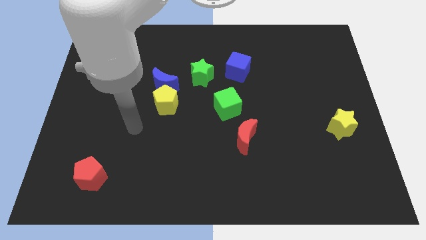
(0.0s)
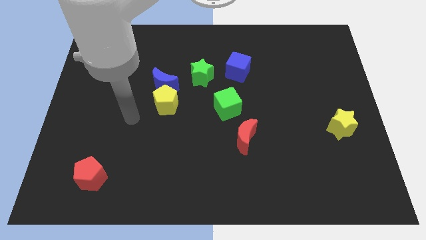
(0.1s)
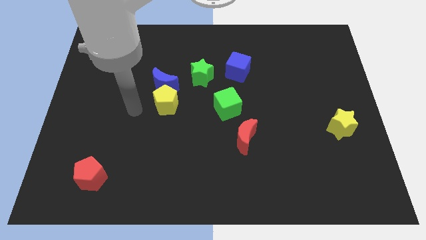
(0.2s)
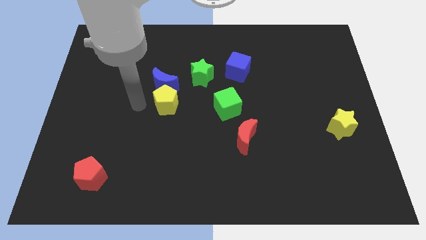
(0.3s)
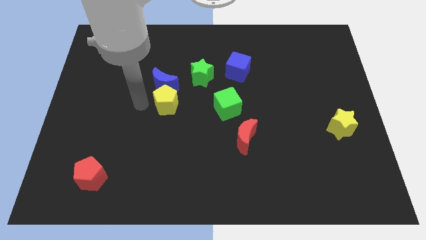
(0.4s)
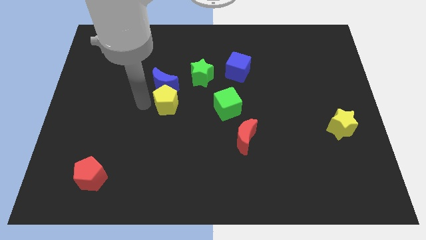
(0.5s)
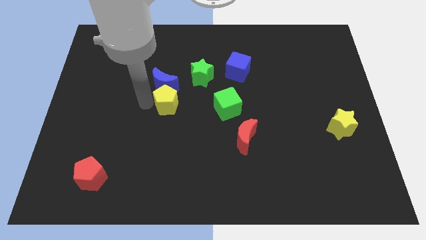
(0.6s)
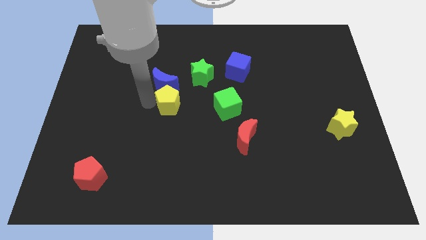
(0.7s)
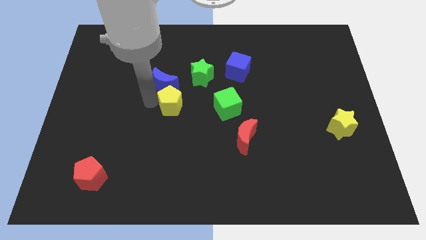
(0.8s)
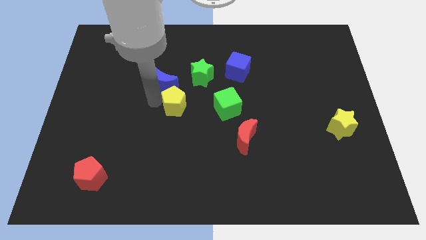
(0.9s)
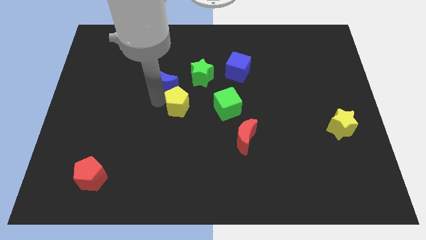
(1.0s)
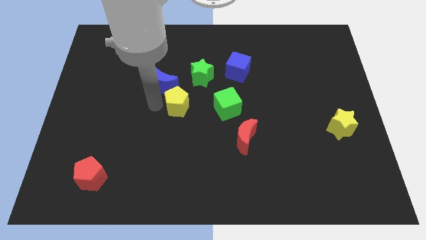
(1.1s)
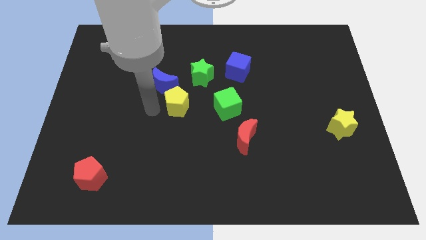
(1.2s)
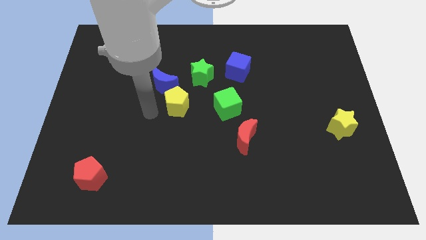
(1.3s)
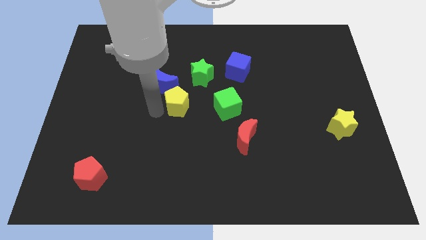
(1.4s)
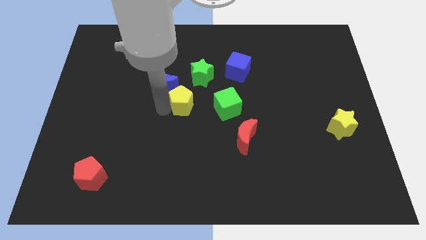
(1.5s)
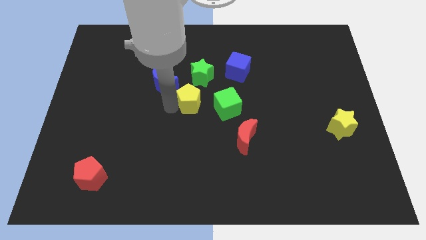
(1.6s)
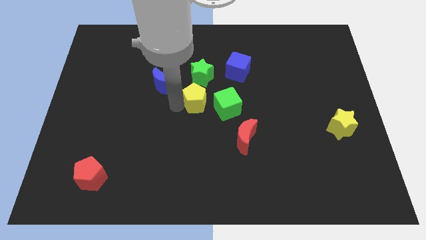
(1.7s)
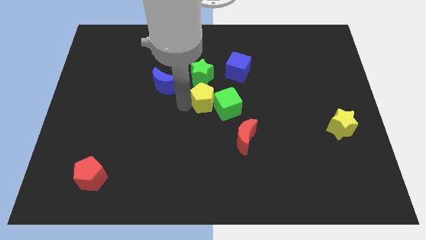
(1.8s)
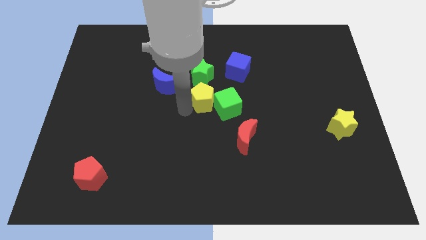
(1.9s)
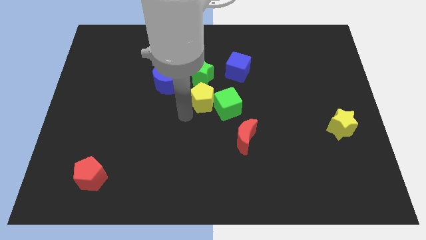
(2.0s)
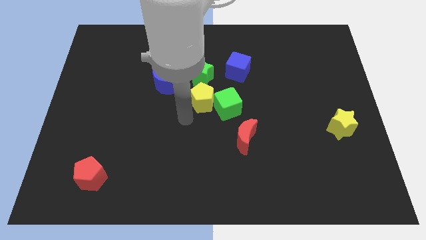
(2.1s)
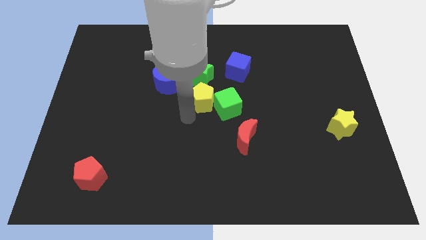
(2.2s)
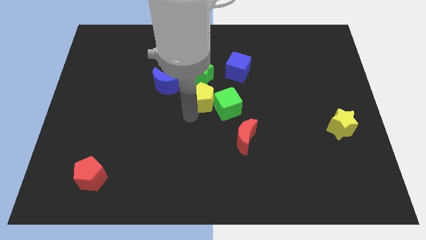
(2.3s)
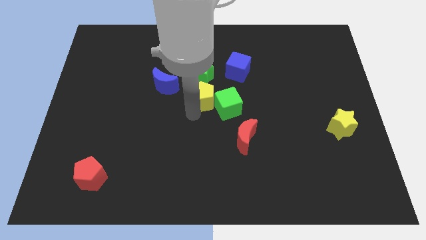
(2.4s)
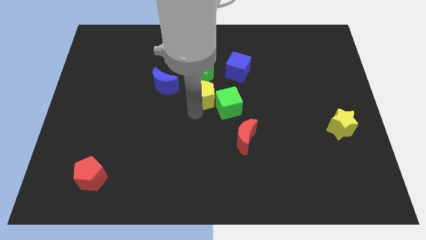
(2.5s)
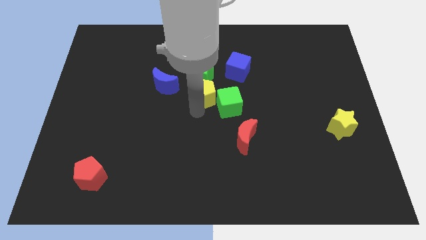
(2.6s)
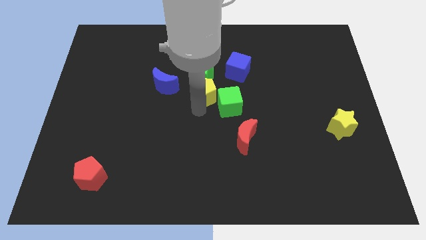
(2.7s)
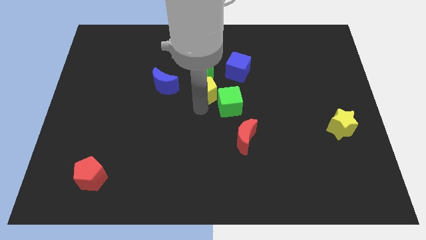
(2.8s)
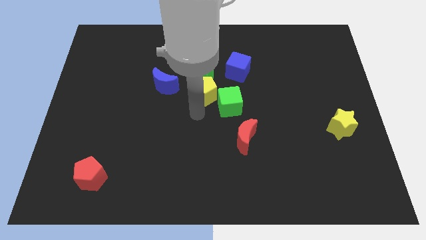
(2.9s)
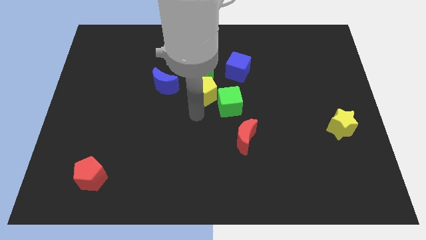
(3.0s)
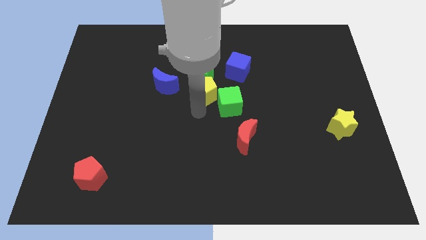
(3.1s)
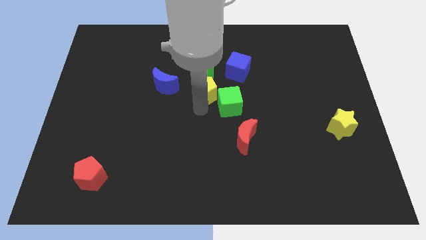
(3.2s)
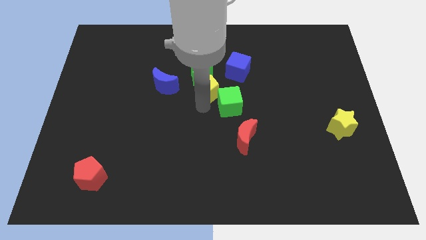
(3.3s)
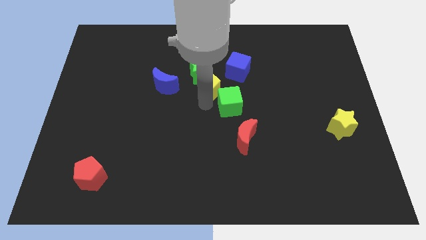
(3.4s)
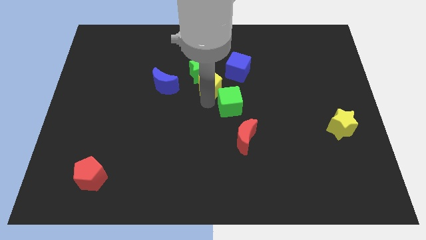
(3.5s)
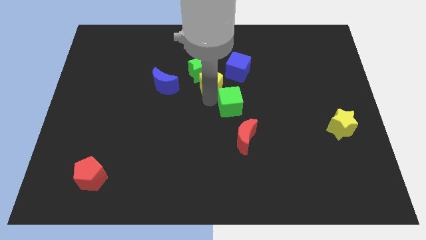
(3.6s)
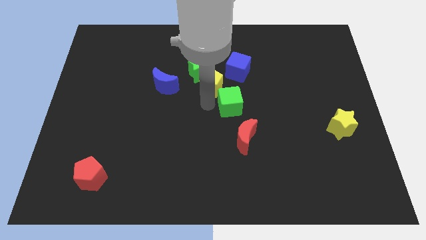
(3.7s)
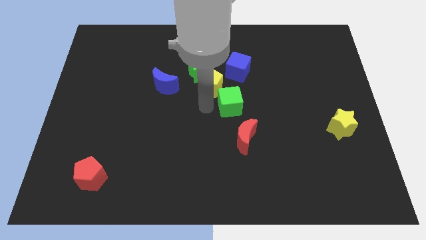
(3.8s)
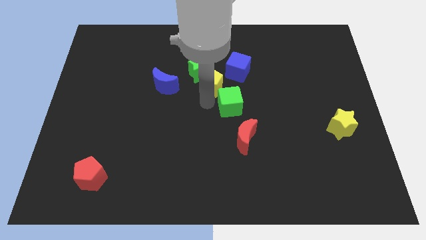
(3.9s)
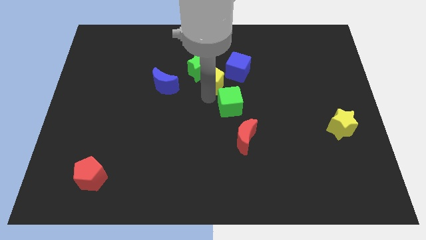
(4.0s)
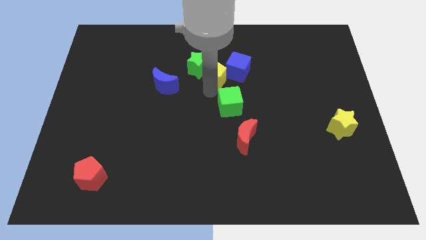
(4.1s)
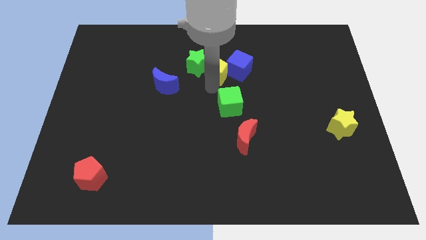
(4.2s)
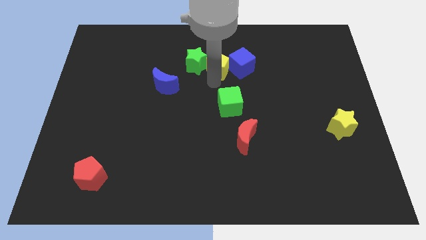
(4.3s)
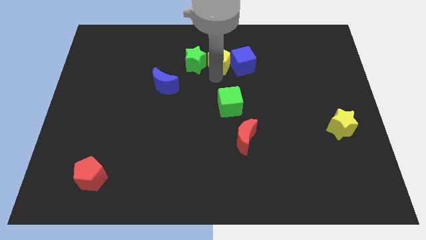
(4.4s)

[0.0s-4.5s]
push the yellow pentagon diagonally up and to the left of the blue cube

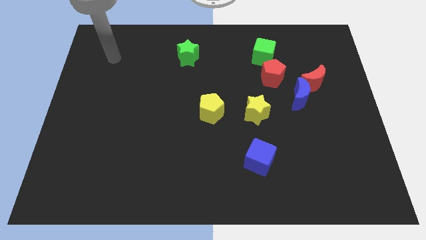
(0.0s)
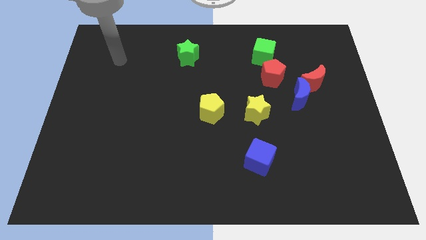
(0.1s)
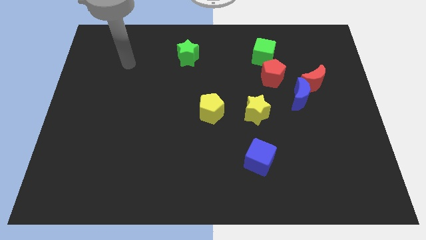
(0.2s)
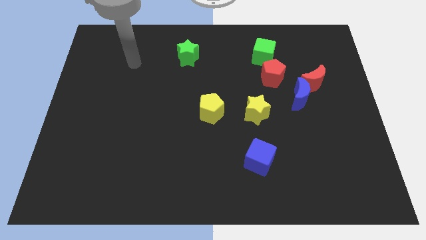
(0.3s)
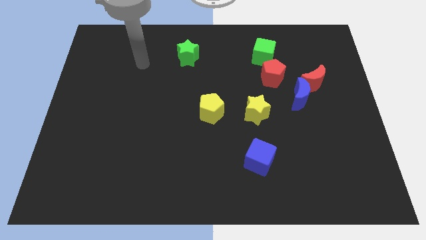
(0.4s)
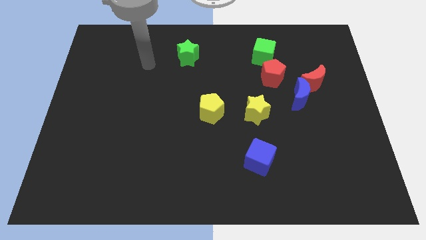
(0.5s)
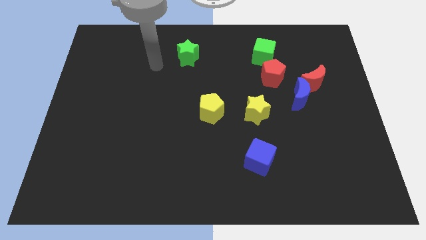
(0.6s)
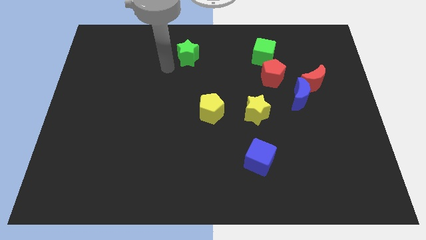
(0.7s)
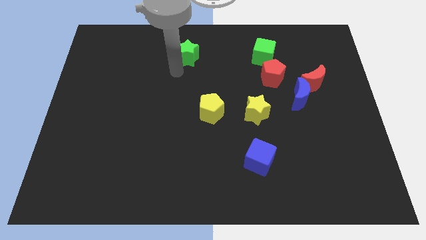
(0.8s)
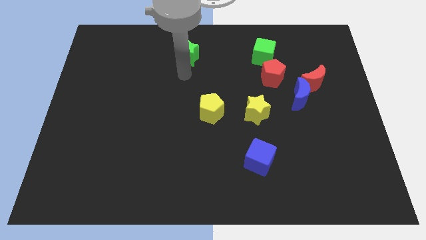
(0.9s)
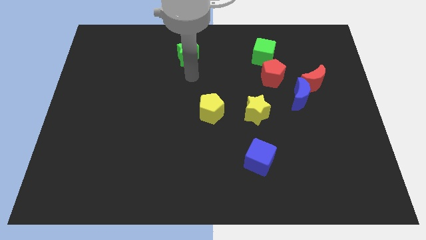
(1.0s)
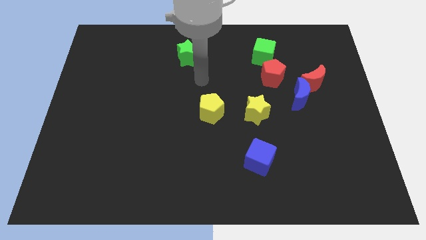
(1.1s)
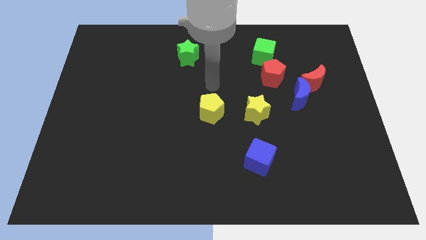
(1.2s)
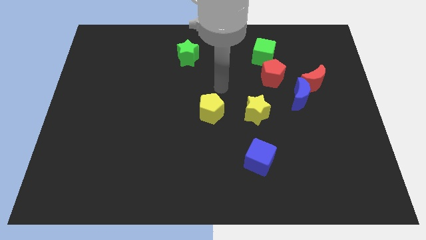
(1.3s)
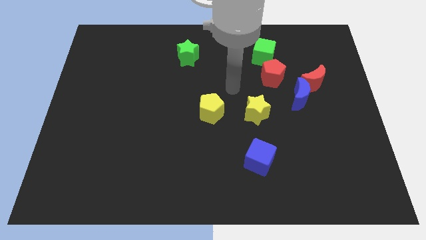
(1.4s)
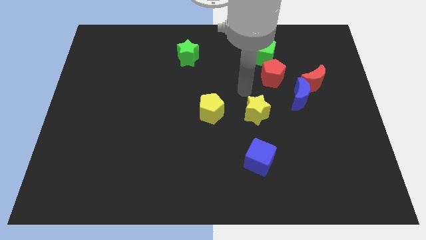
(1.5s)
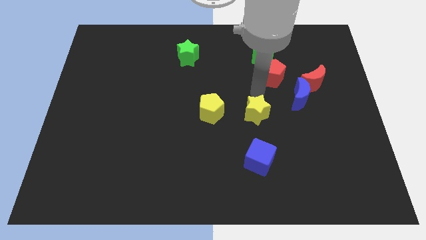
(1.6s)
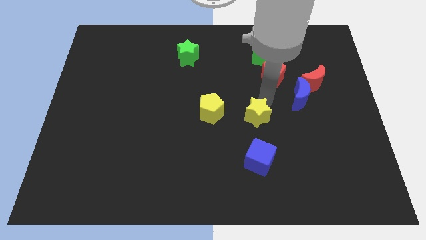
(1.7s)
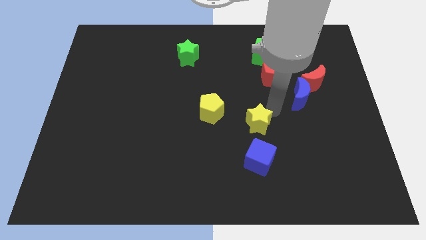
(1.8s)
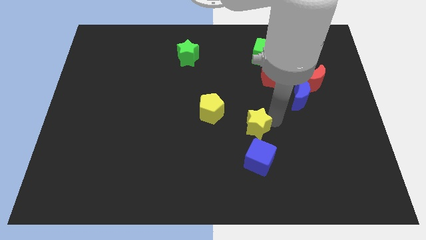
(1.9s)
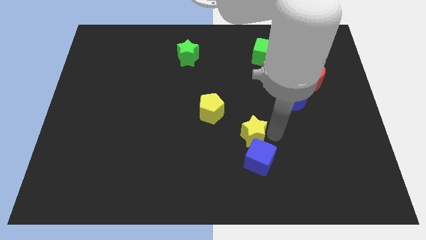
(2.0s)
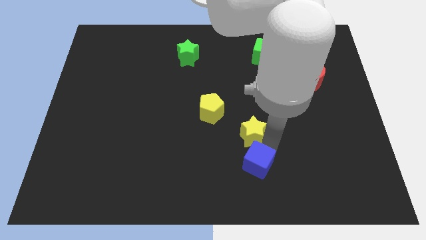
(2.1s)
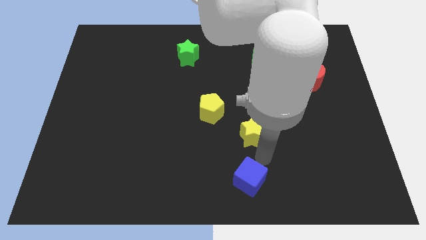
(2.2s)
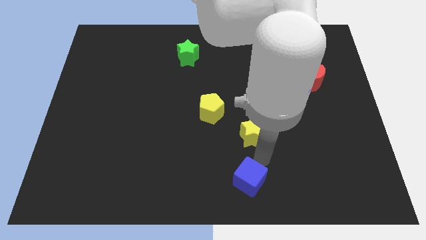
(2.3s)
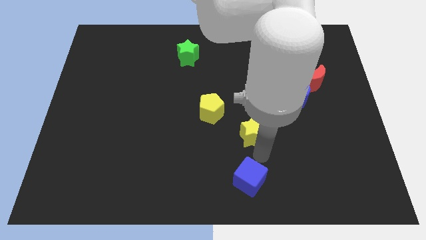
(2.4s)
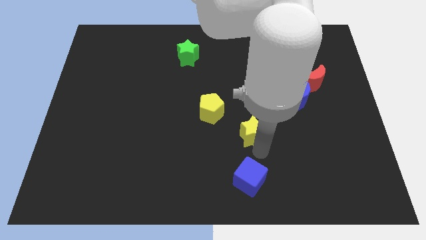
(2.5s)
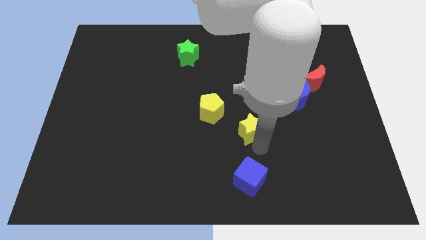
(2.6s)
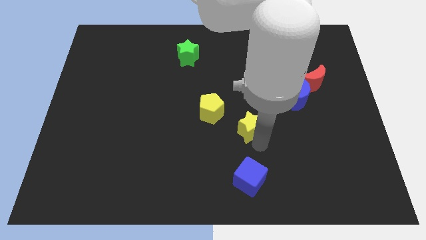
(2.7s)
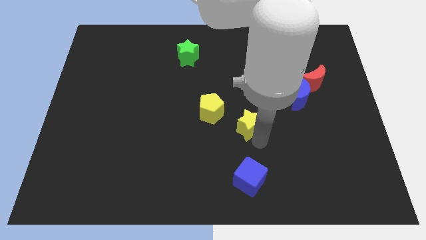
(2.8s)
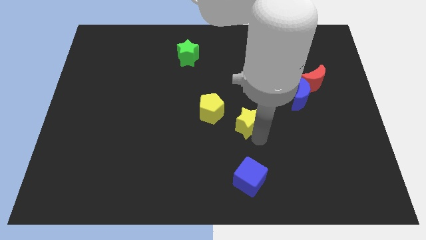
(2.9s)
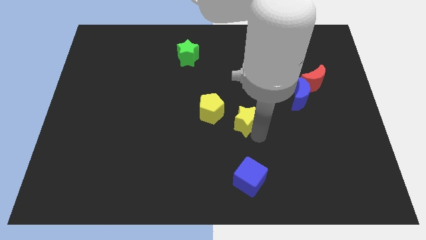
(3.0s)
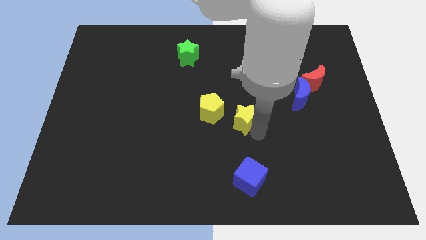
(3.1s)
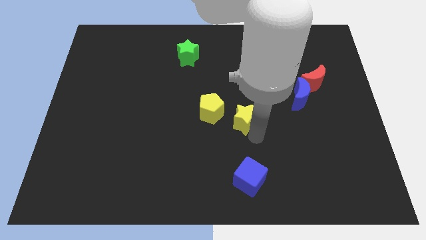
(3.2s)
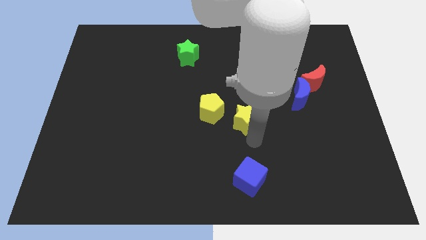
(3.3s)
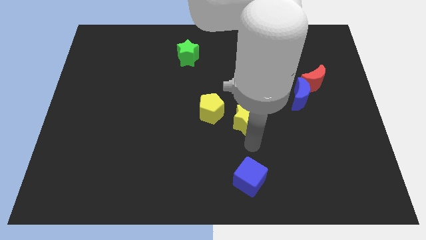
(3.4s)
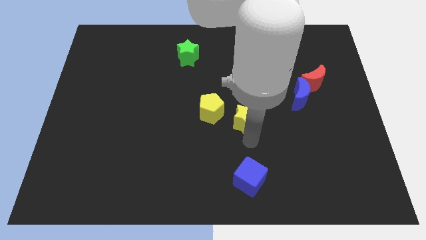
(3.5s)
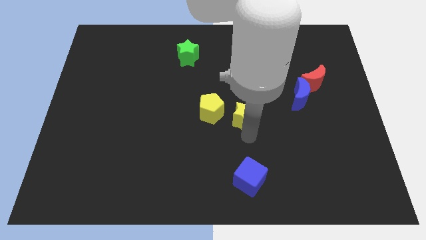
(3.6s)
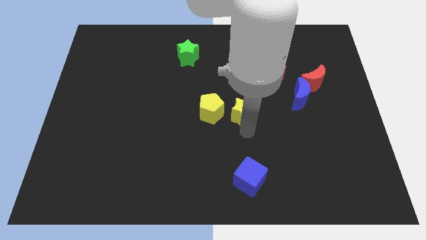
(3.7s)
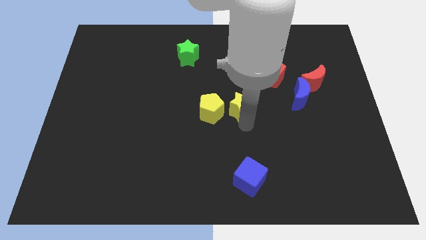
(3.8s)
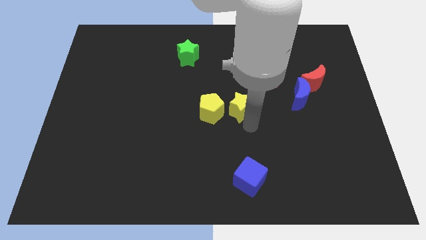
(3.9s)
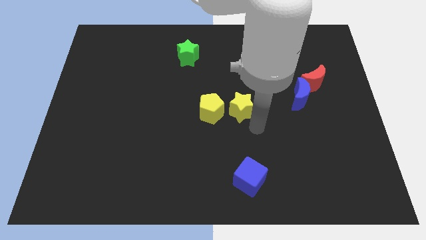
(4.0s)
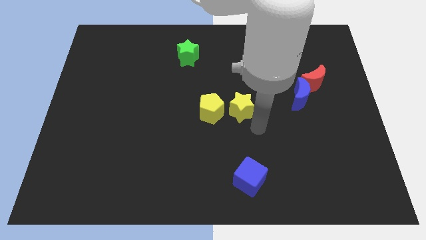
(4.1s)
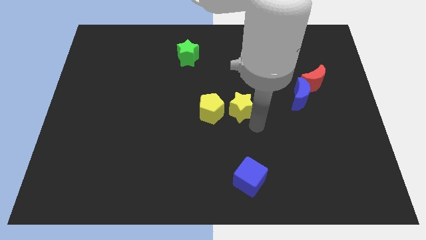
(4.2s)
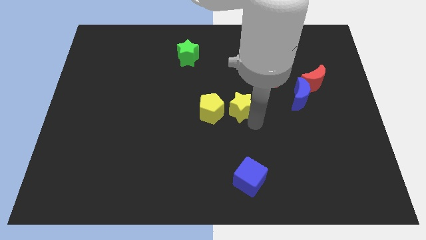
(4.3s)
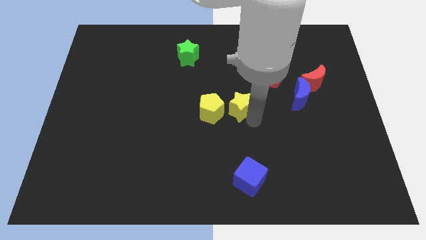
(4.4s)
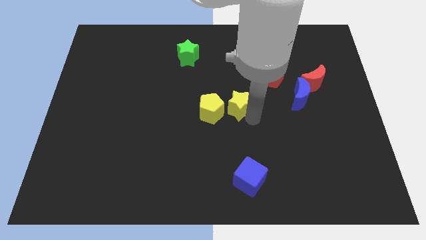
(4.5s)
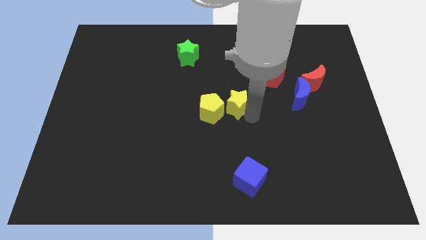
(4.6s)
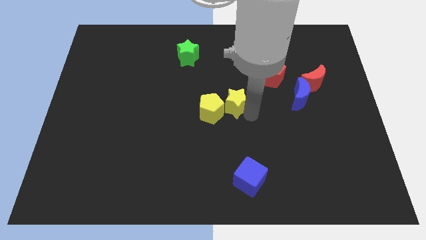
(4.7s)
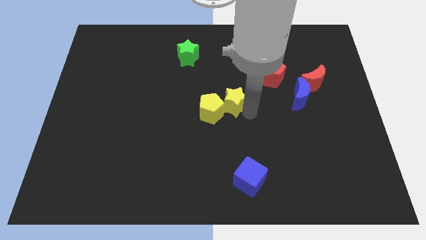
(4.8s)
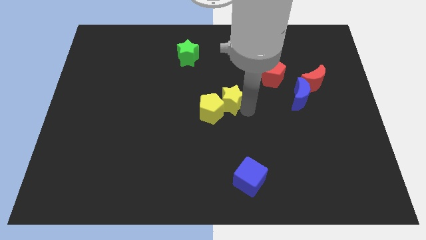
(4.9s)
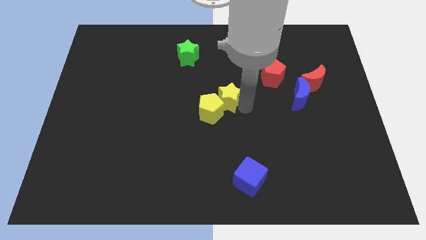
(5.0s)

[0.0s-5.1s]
move the yellow star to the top of the yellow pentagon
